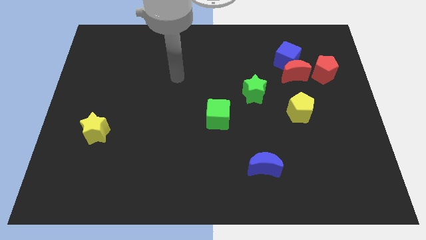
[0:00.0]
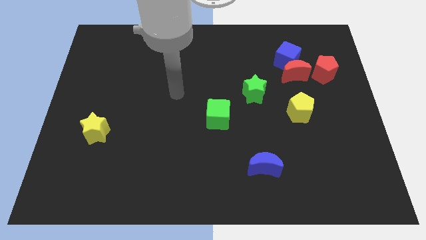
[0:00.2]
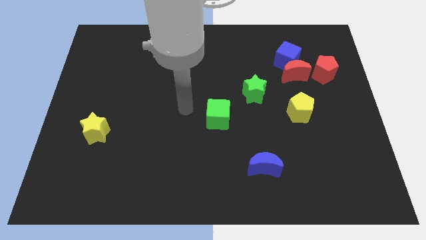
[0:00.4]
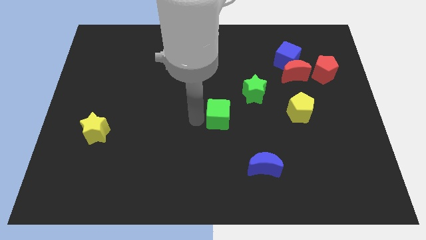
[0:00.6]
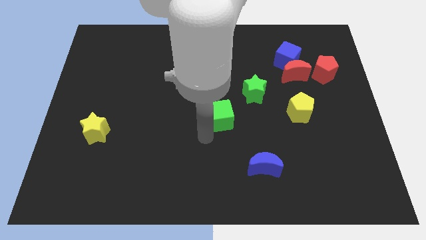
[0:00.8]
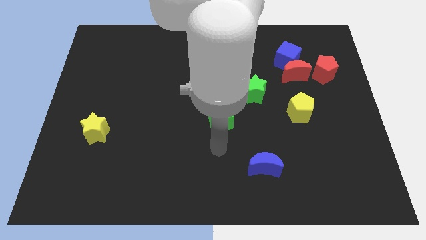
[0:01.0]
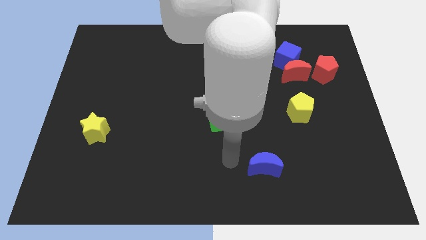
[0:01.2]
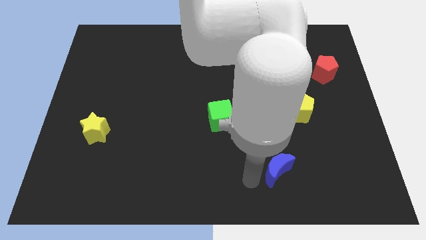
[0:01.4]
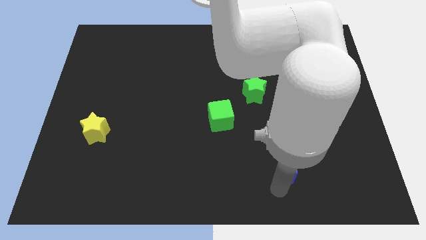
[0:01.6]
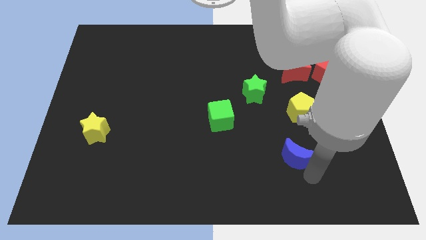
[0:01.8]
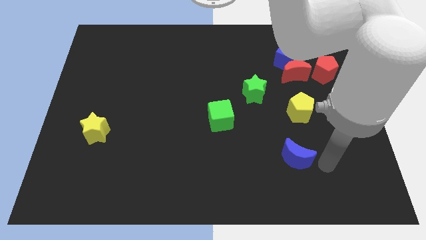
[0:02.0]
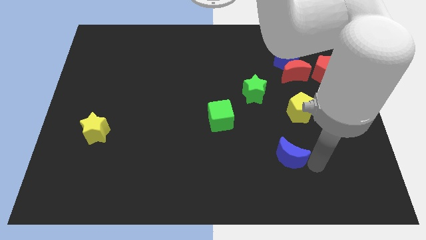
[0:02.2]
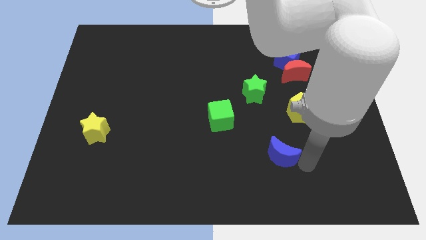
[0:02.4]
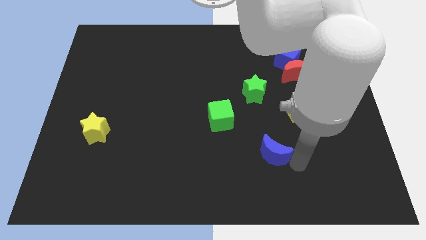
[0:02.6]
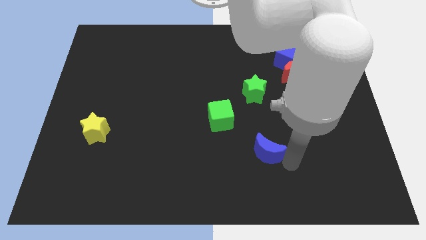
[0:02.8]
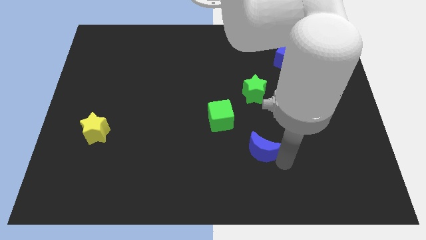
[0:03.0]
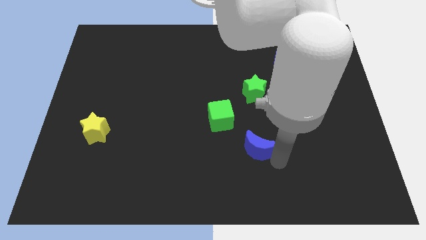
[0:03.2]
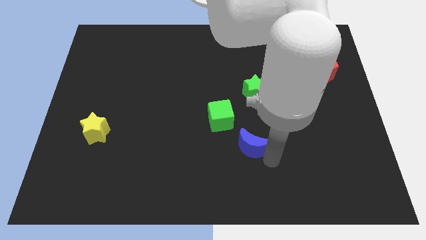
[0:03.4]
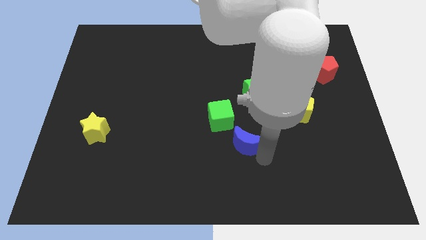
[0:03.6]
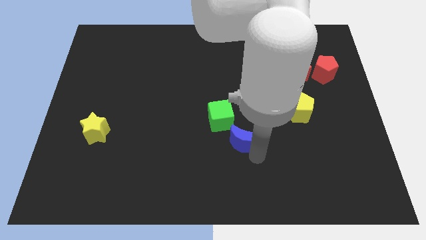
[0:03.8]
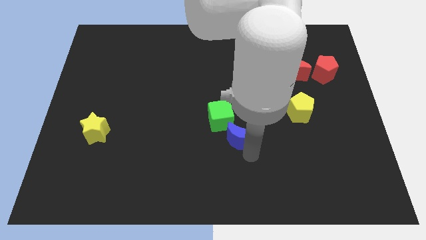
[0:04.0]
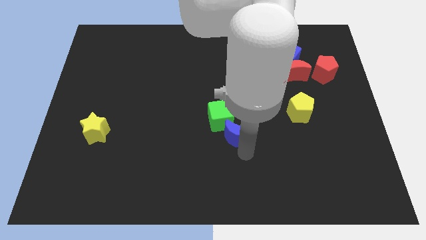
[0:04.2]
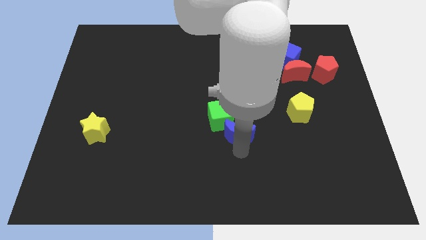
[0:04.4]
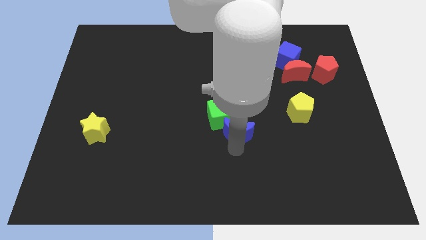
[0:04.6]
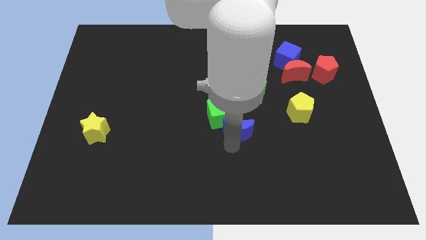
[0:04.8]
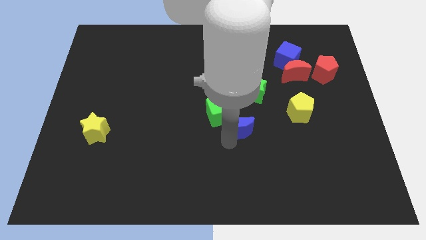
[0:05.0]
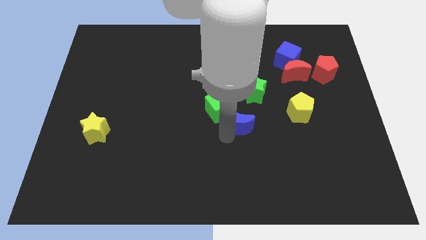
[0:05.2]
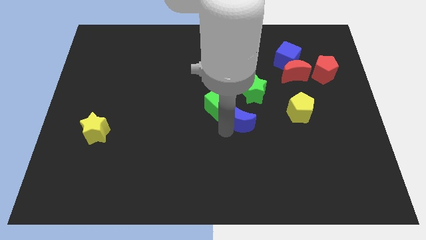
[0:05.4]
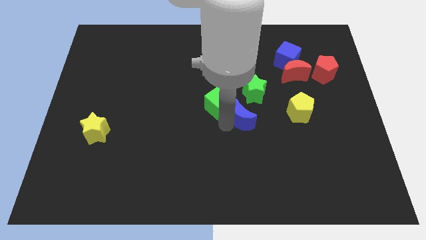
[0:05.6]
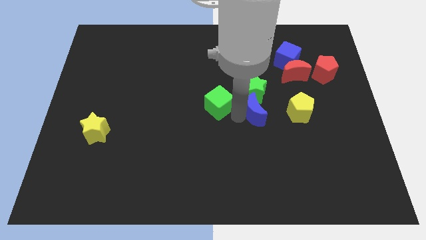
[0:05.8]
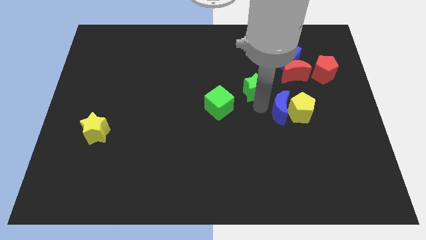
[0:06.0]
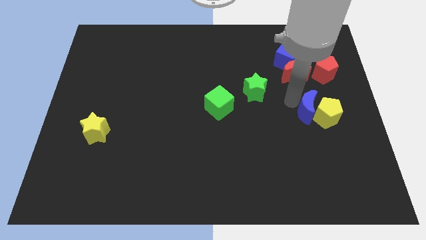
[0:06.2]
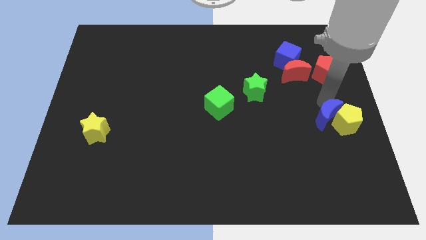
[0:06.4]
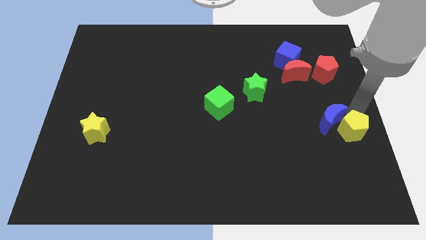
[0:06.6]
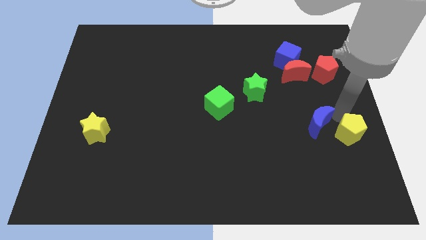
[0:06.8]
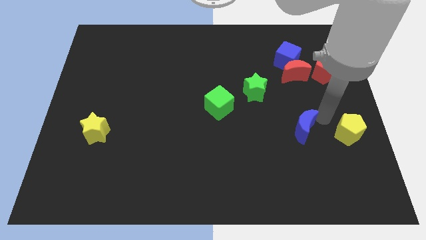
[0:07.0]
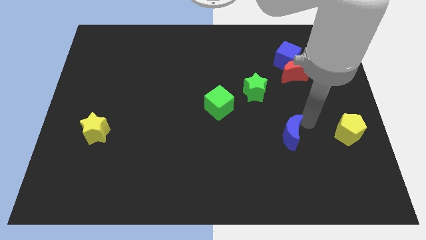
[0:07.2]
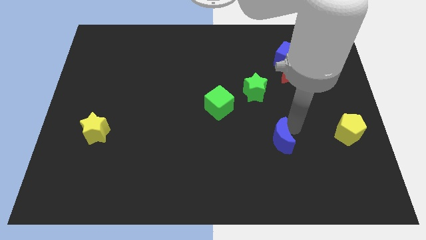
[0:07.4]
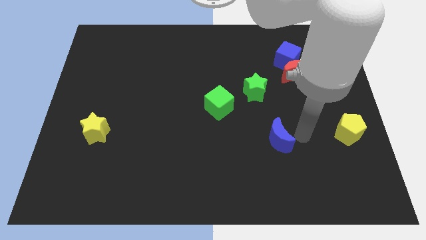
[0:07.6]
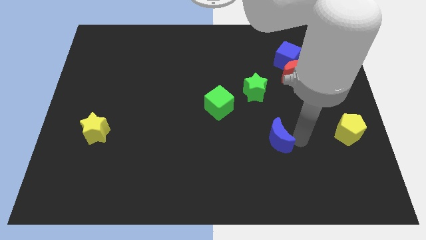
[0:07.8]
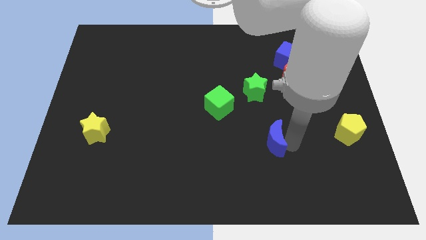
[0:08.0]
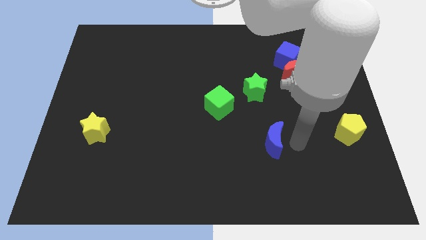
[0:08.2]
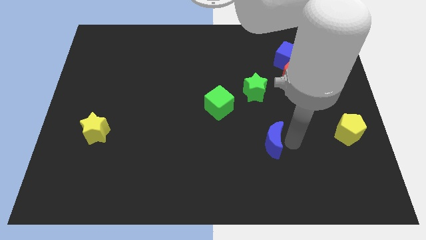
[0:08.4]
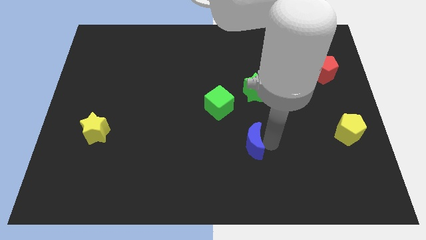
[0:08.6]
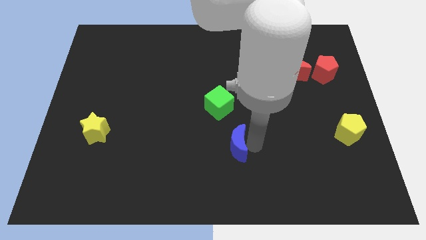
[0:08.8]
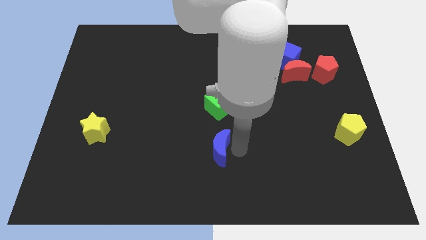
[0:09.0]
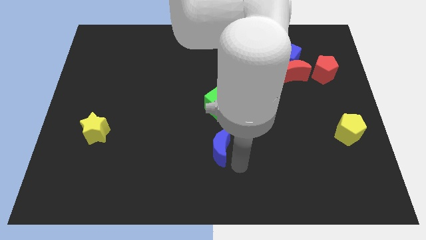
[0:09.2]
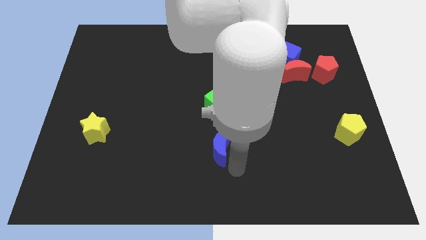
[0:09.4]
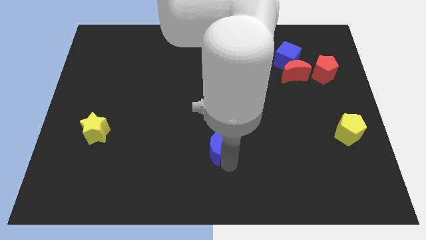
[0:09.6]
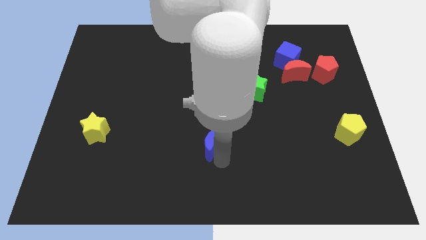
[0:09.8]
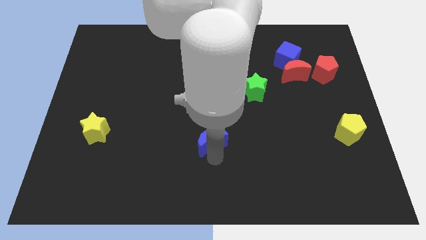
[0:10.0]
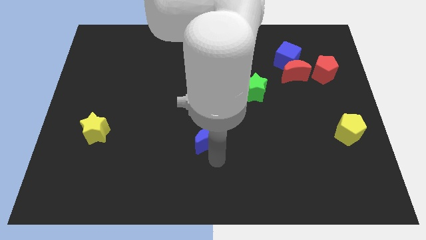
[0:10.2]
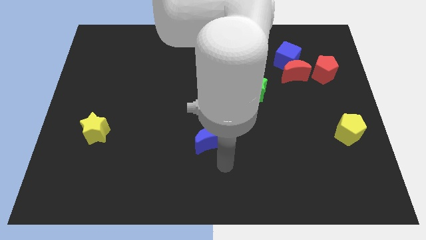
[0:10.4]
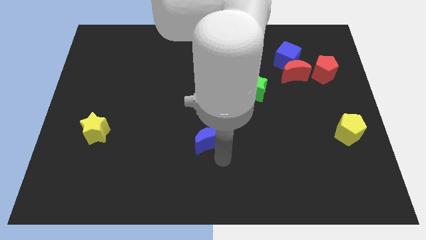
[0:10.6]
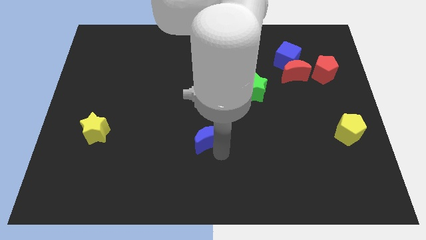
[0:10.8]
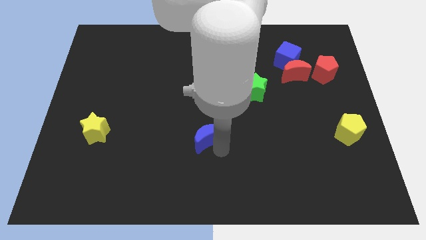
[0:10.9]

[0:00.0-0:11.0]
move the blue moon to the bottom left side of the green cube

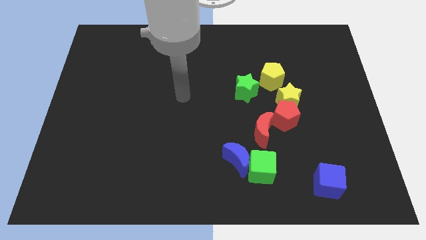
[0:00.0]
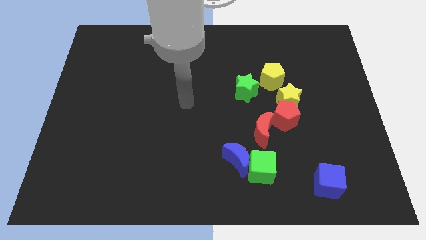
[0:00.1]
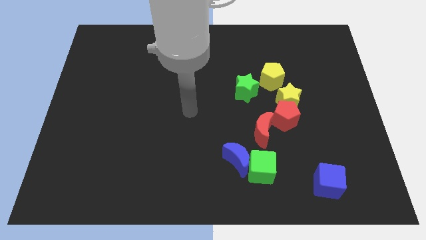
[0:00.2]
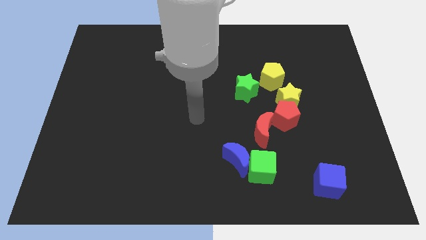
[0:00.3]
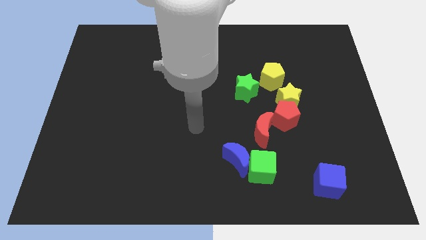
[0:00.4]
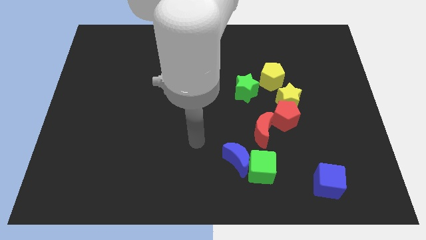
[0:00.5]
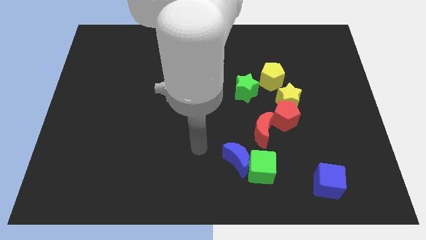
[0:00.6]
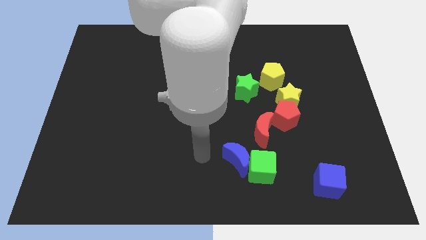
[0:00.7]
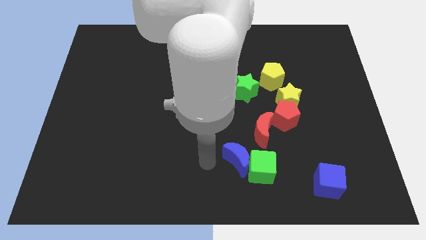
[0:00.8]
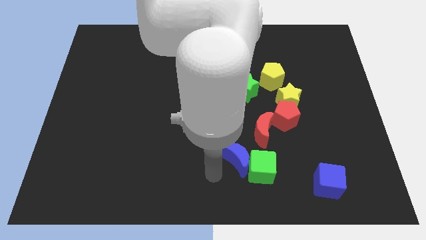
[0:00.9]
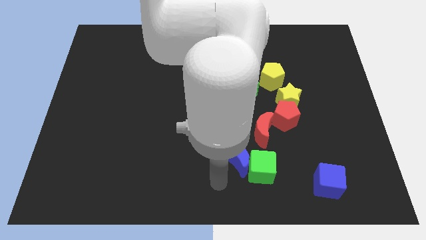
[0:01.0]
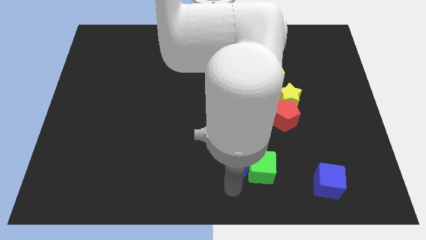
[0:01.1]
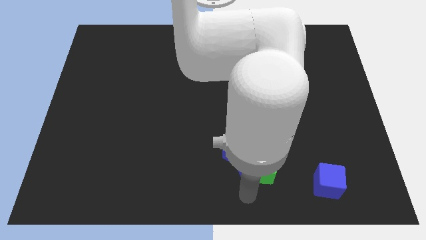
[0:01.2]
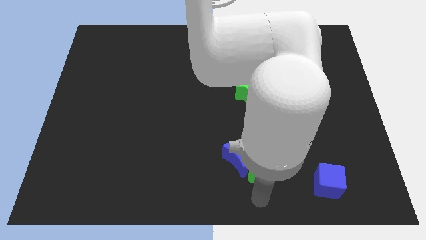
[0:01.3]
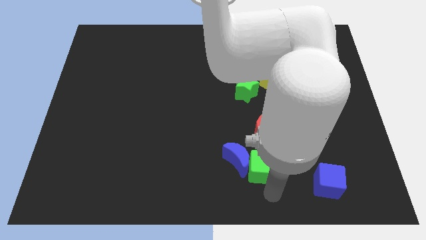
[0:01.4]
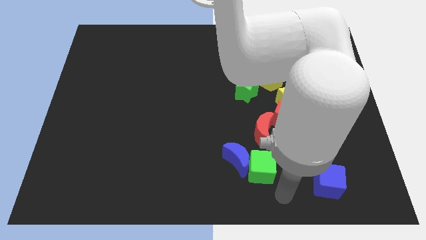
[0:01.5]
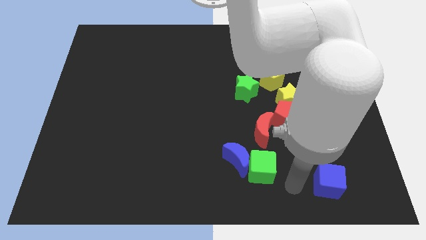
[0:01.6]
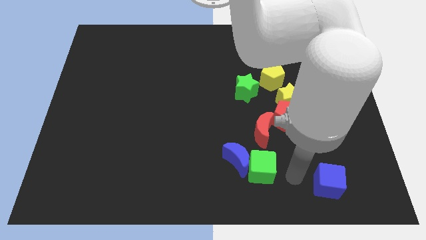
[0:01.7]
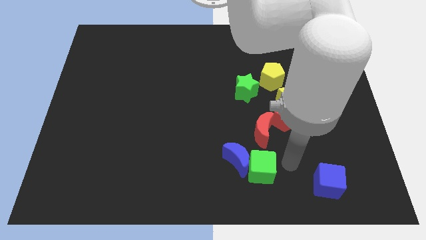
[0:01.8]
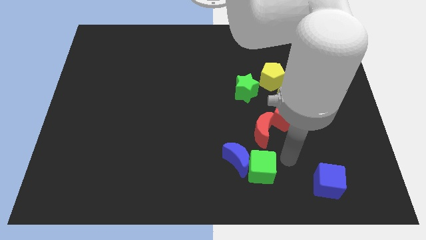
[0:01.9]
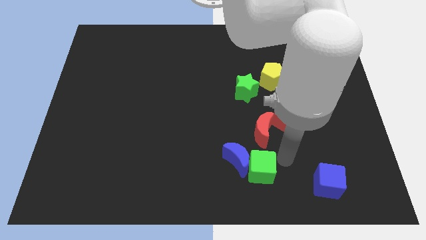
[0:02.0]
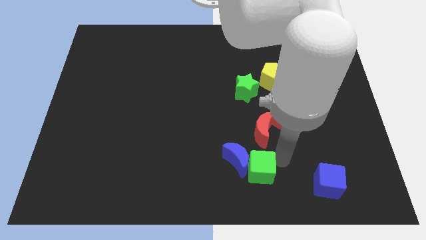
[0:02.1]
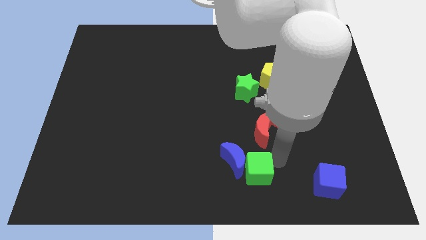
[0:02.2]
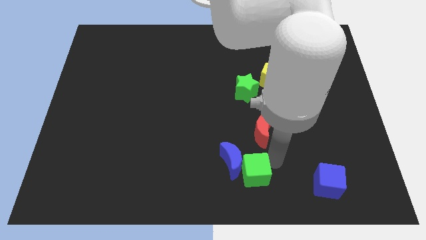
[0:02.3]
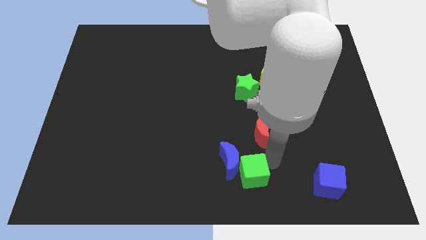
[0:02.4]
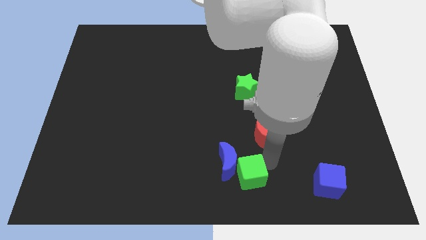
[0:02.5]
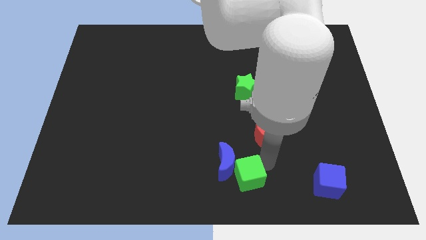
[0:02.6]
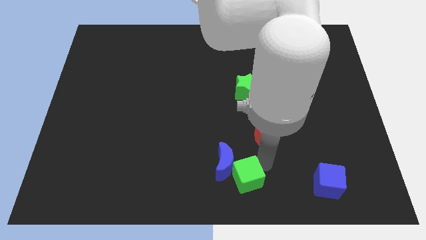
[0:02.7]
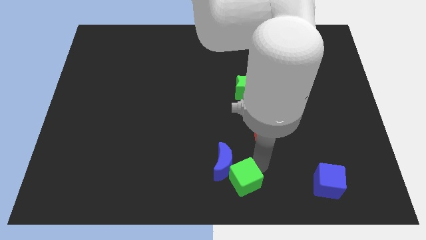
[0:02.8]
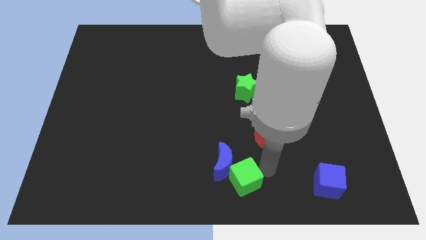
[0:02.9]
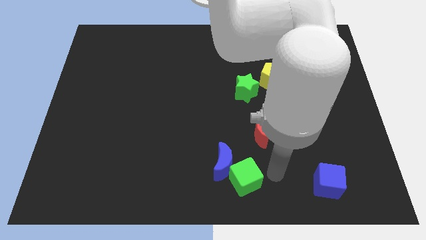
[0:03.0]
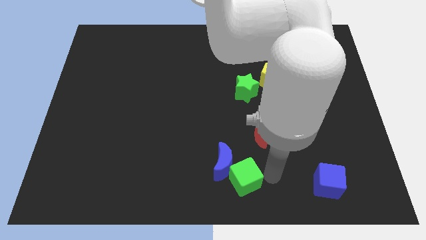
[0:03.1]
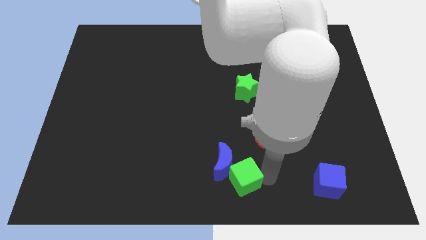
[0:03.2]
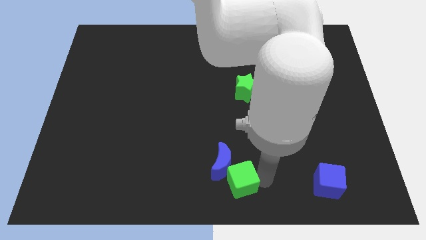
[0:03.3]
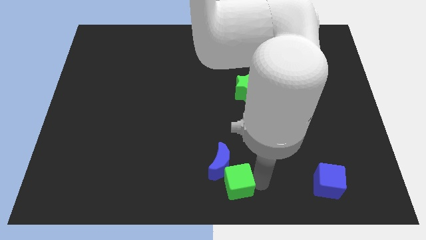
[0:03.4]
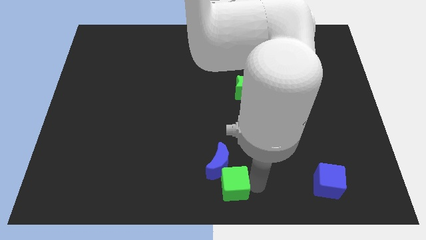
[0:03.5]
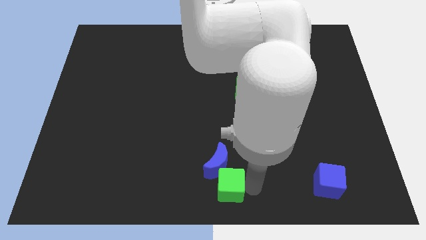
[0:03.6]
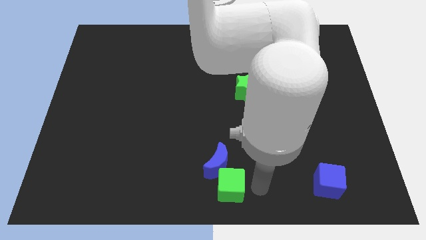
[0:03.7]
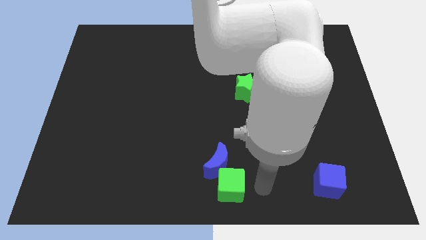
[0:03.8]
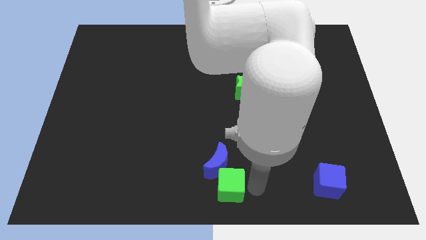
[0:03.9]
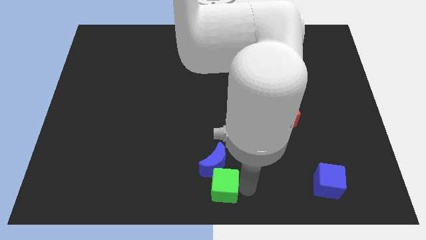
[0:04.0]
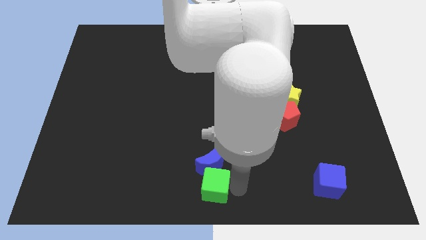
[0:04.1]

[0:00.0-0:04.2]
slide the green cube to the bottom left side of the blue moon
